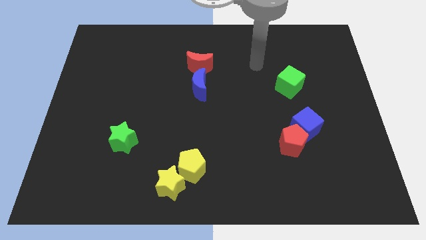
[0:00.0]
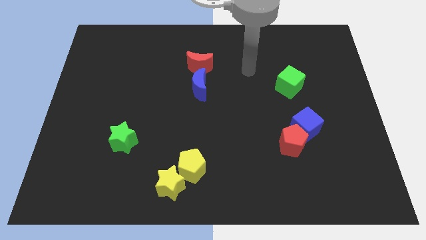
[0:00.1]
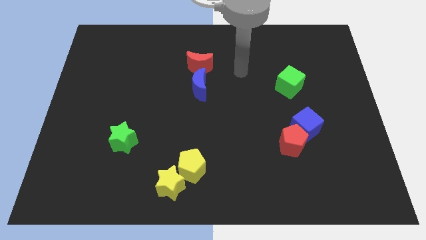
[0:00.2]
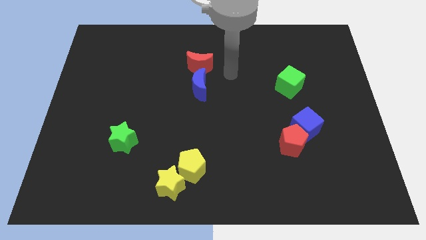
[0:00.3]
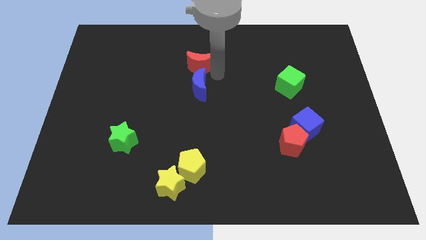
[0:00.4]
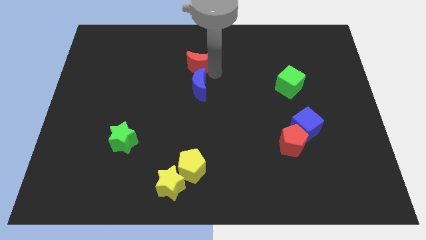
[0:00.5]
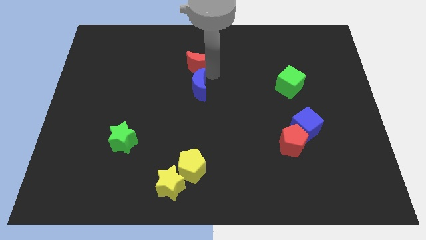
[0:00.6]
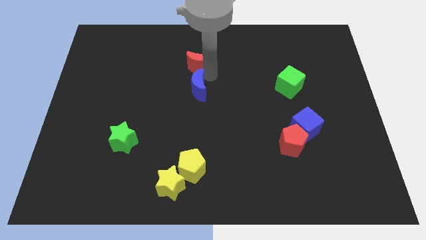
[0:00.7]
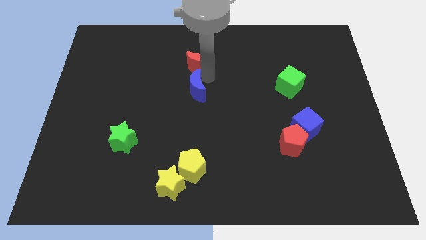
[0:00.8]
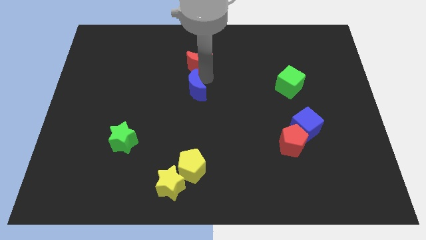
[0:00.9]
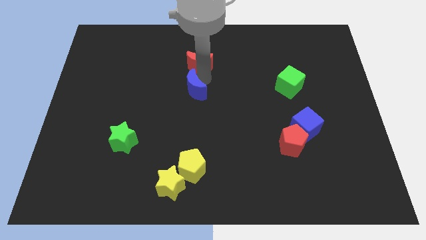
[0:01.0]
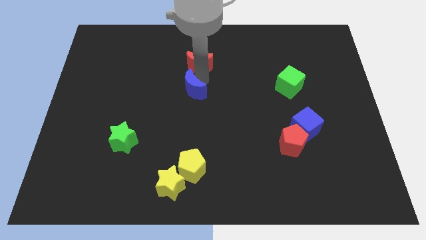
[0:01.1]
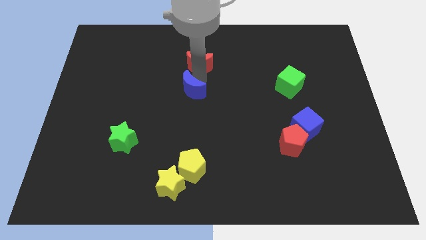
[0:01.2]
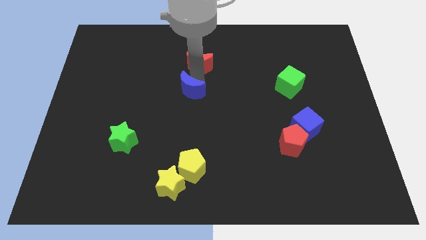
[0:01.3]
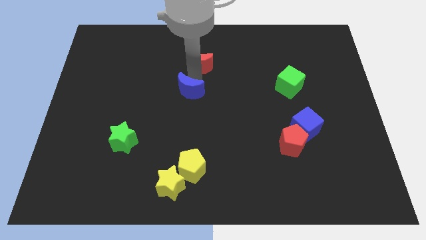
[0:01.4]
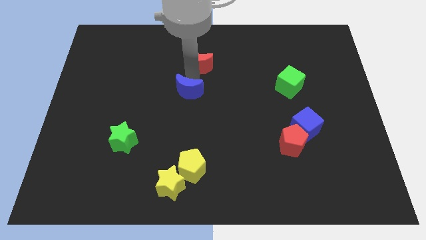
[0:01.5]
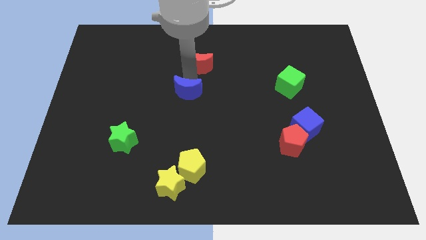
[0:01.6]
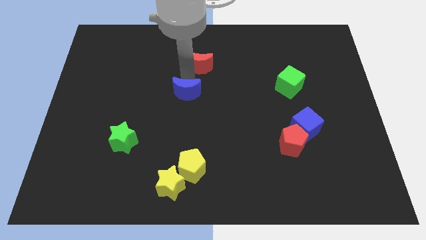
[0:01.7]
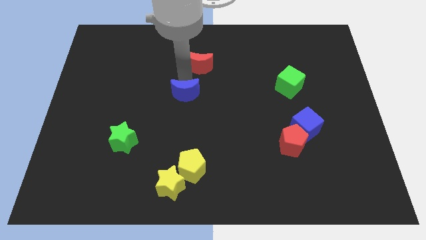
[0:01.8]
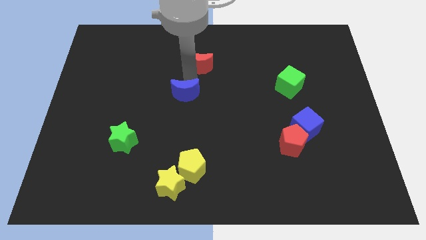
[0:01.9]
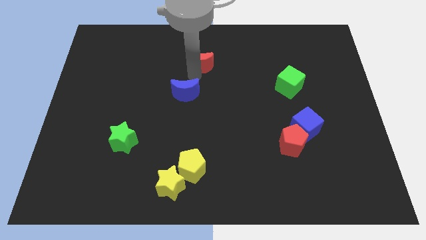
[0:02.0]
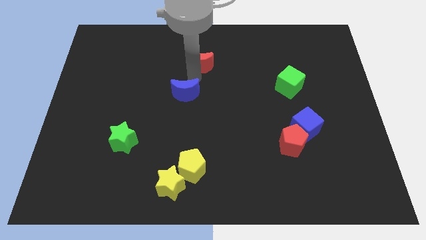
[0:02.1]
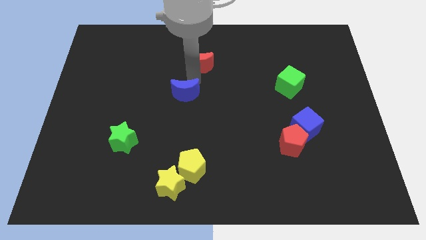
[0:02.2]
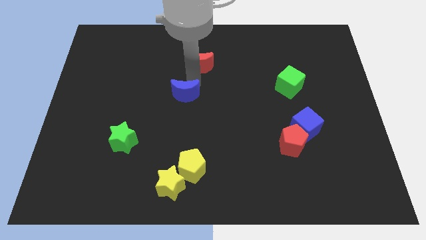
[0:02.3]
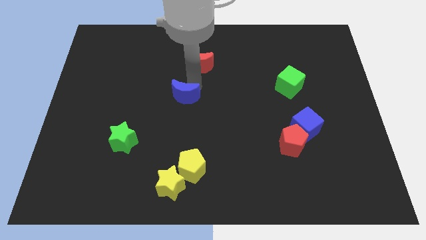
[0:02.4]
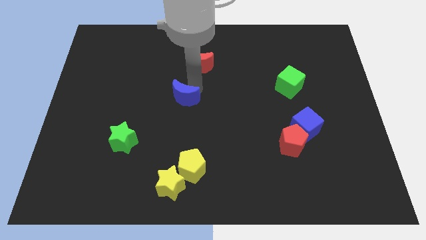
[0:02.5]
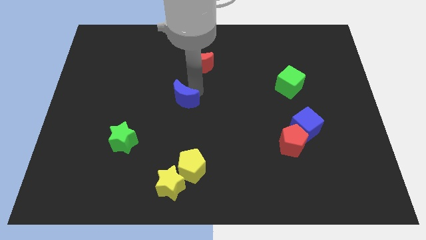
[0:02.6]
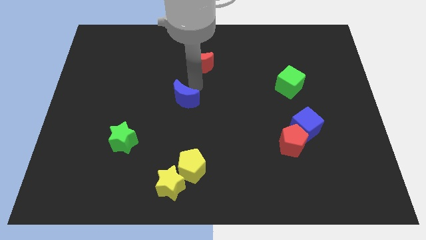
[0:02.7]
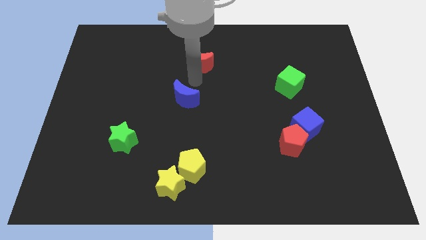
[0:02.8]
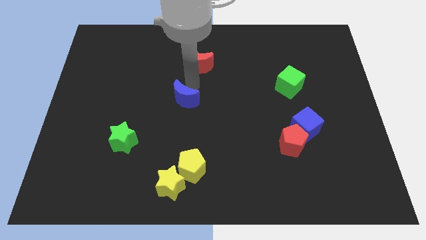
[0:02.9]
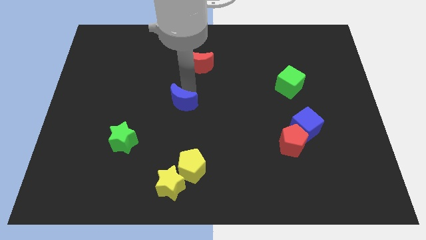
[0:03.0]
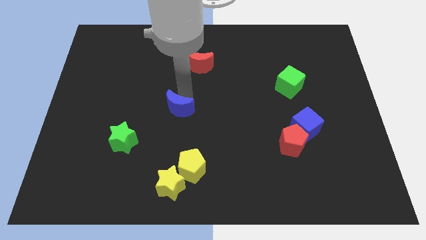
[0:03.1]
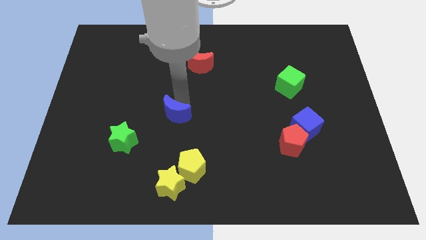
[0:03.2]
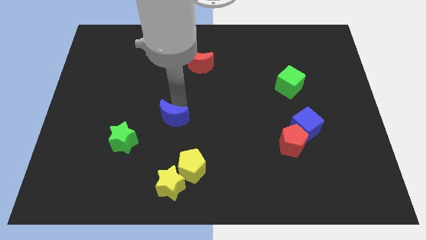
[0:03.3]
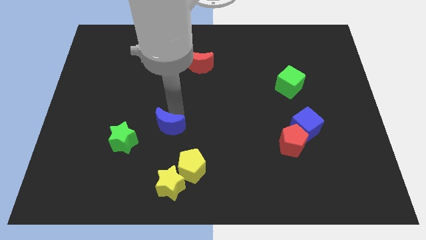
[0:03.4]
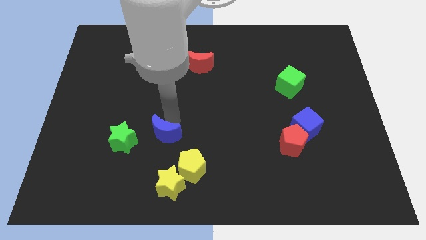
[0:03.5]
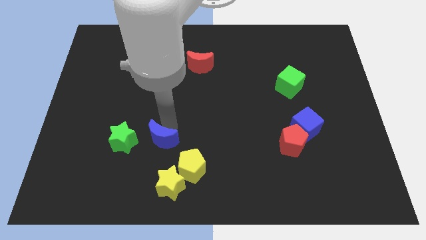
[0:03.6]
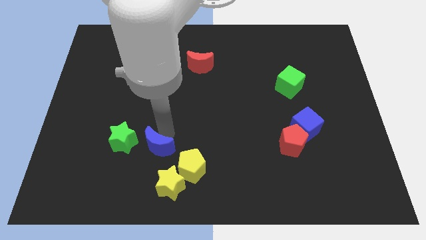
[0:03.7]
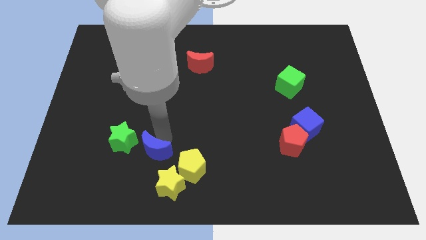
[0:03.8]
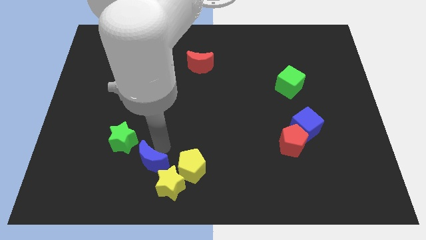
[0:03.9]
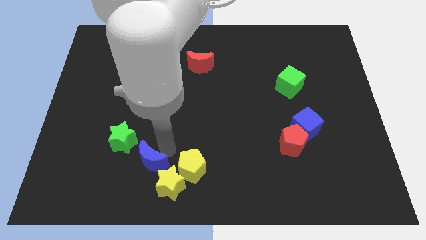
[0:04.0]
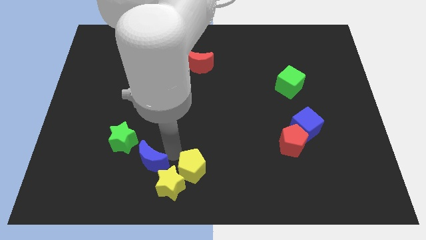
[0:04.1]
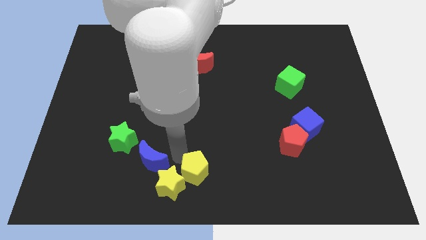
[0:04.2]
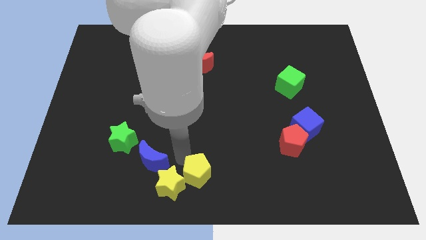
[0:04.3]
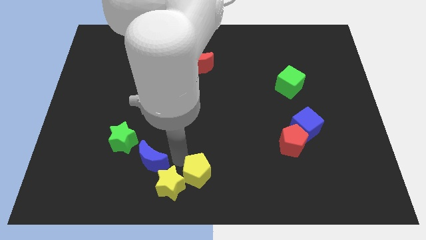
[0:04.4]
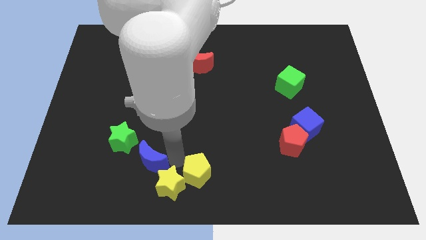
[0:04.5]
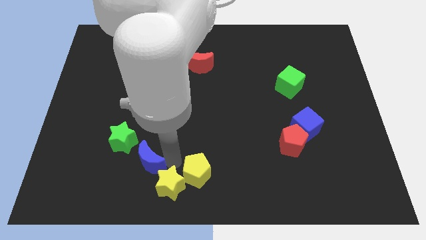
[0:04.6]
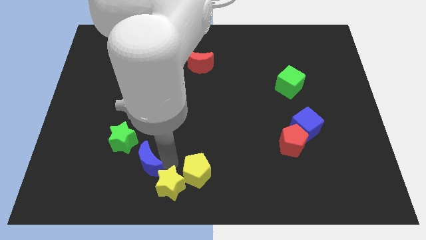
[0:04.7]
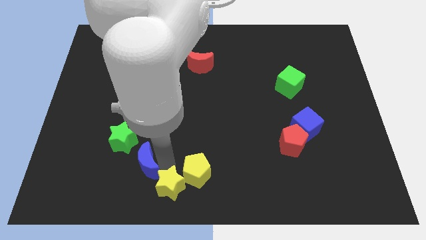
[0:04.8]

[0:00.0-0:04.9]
slide the blue moon downwards and to the left

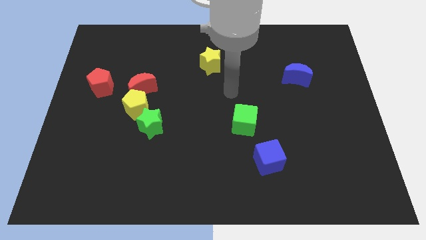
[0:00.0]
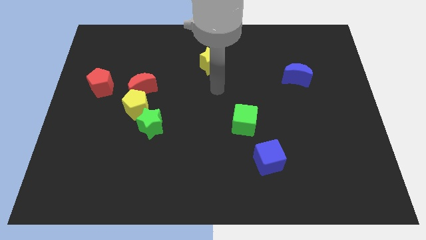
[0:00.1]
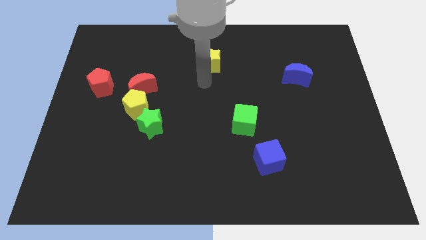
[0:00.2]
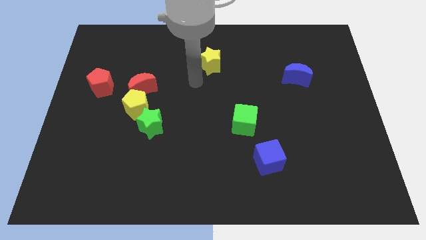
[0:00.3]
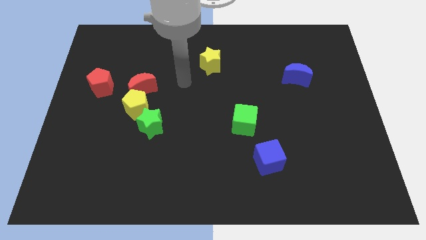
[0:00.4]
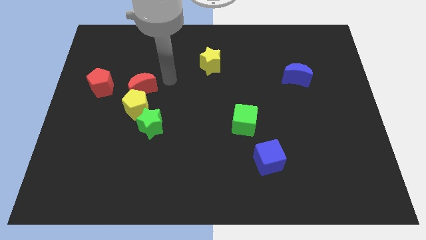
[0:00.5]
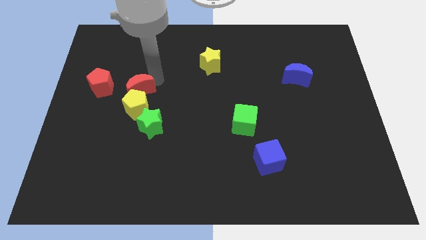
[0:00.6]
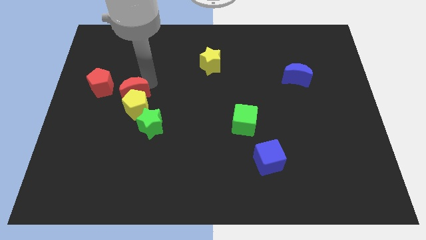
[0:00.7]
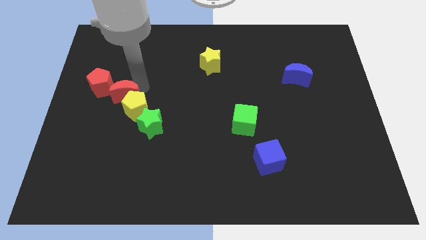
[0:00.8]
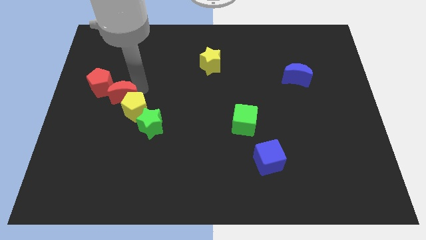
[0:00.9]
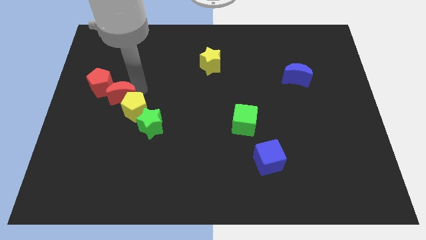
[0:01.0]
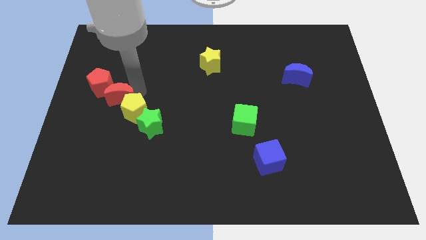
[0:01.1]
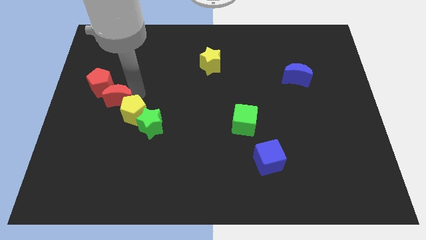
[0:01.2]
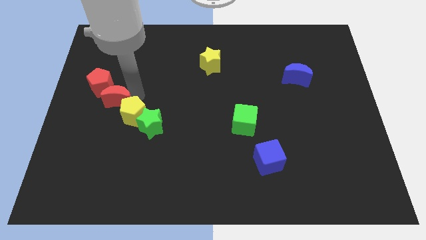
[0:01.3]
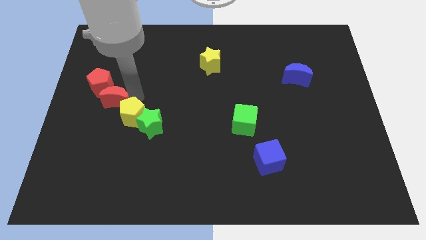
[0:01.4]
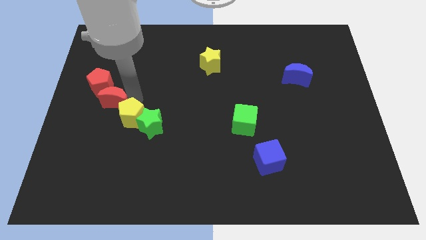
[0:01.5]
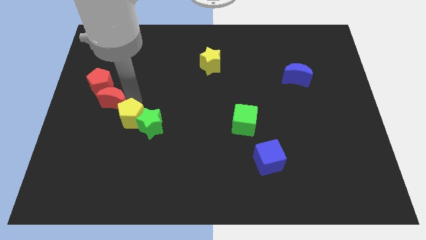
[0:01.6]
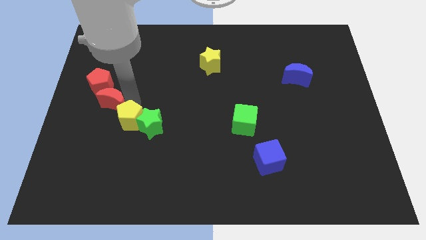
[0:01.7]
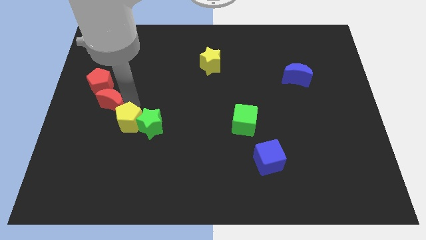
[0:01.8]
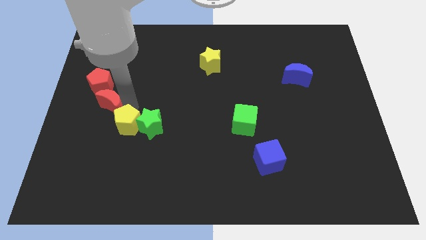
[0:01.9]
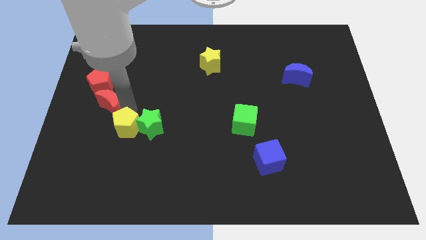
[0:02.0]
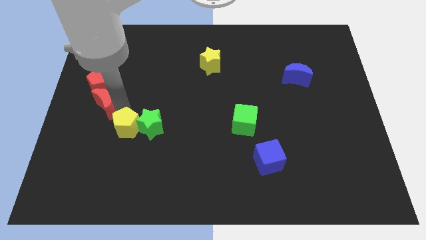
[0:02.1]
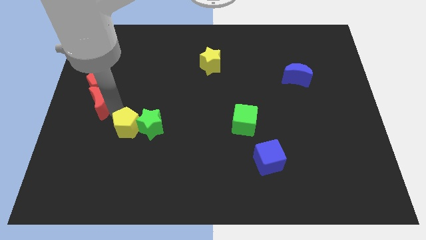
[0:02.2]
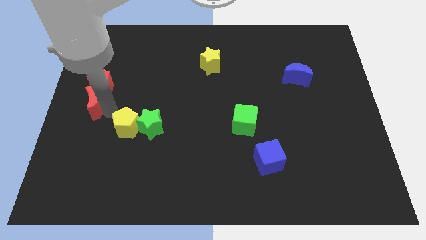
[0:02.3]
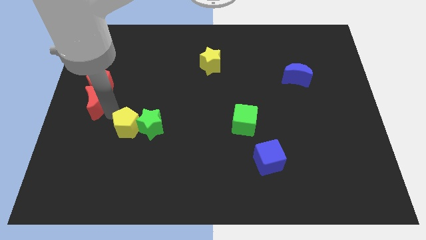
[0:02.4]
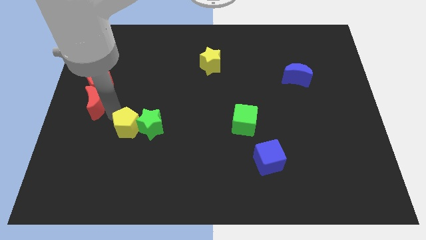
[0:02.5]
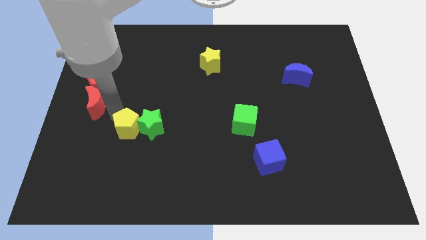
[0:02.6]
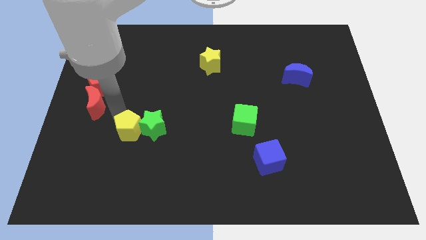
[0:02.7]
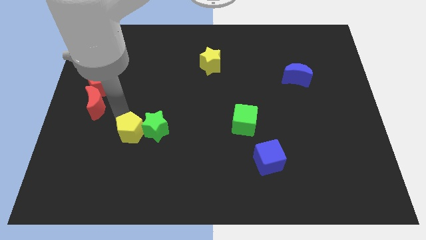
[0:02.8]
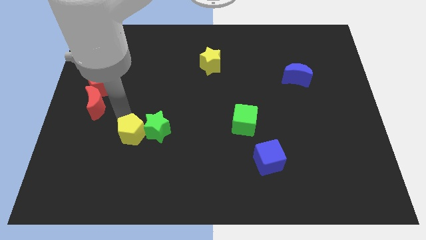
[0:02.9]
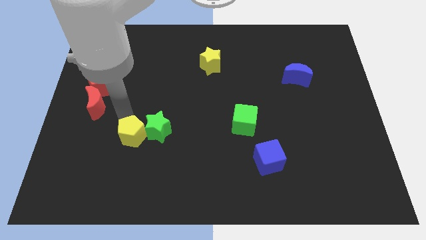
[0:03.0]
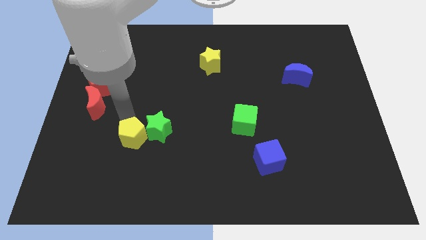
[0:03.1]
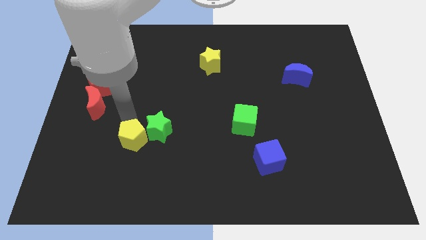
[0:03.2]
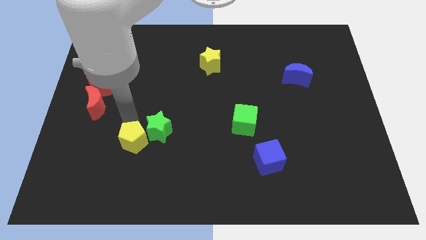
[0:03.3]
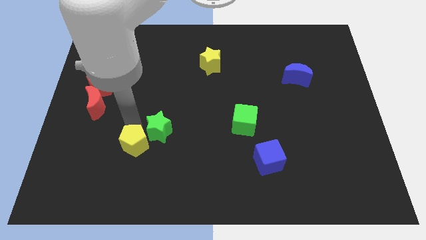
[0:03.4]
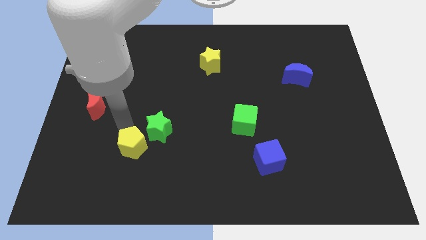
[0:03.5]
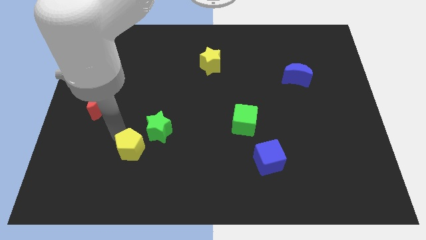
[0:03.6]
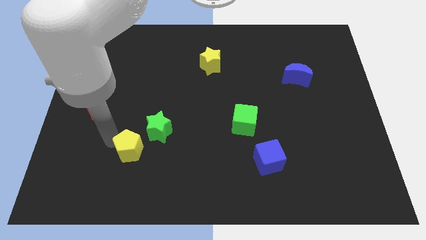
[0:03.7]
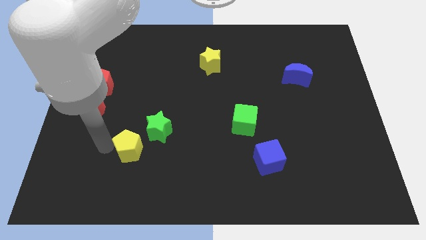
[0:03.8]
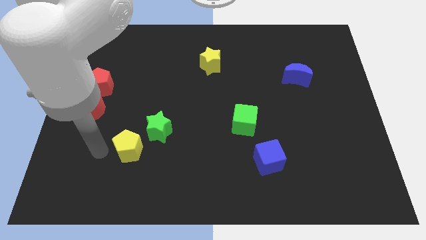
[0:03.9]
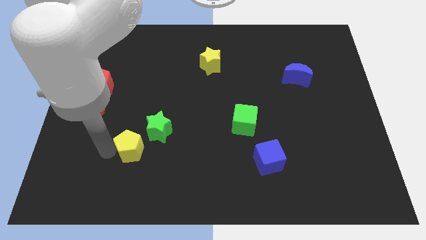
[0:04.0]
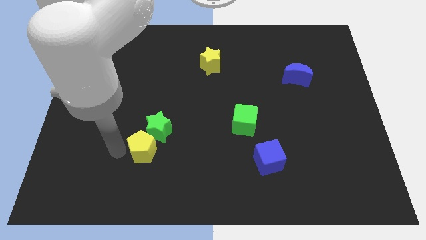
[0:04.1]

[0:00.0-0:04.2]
slightly move the yellow pentagon down and then to the right
